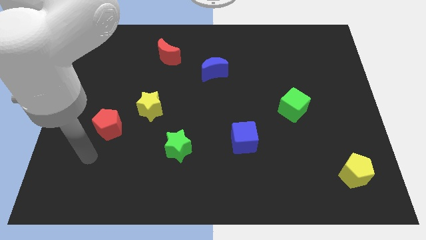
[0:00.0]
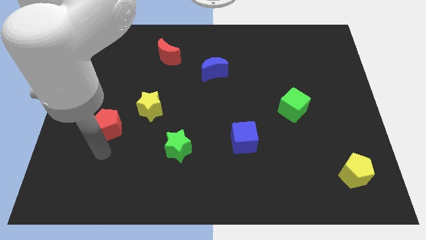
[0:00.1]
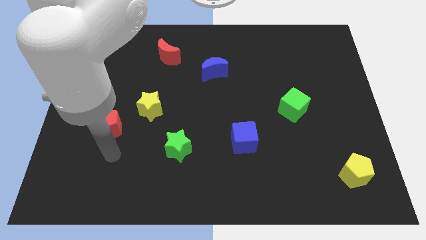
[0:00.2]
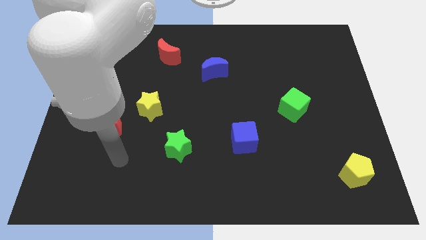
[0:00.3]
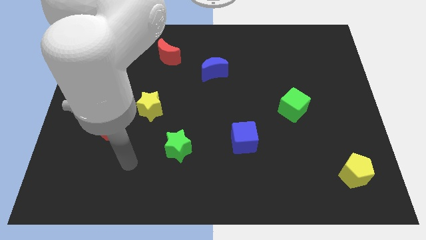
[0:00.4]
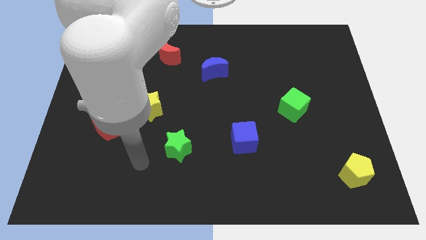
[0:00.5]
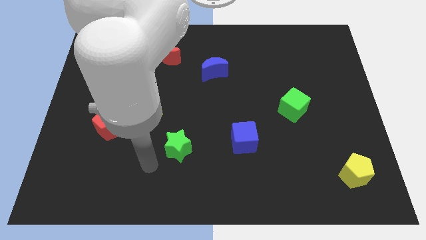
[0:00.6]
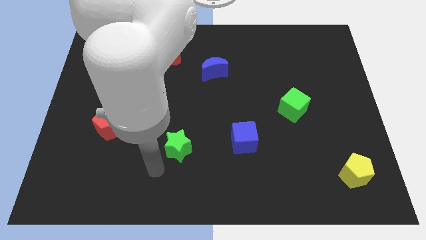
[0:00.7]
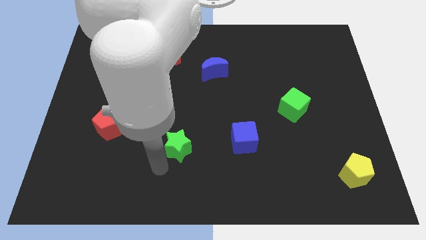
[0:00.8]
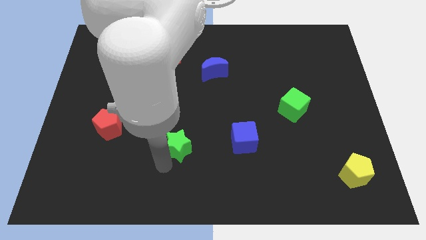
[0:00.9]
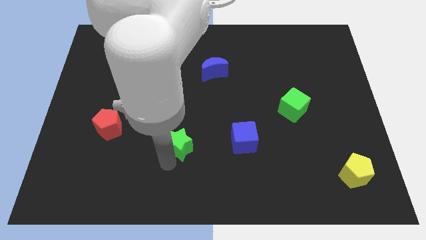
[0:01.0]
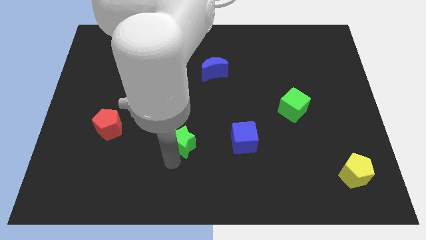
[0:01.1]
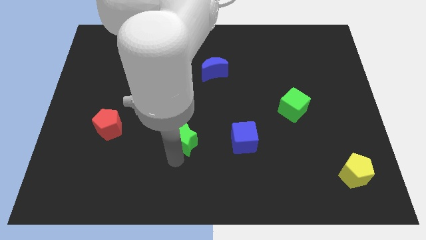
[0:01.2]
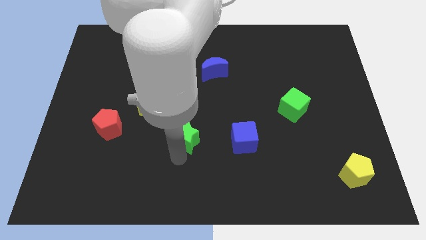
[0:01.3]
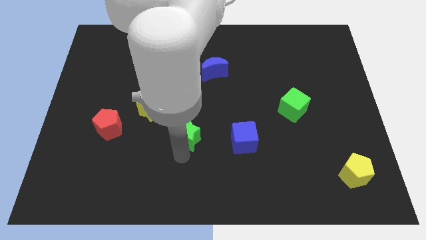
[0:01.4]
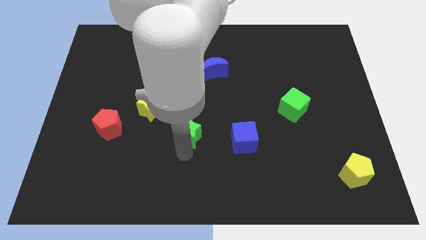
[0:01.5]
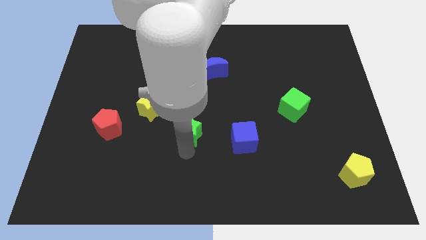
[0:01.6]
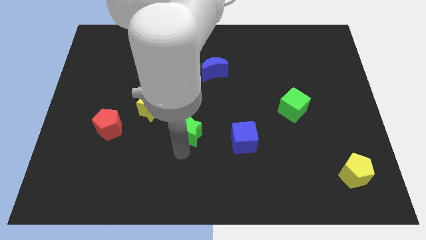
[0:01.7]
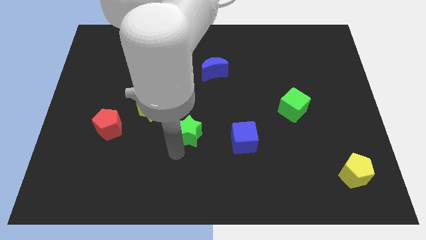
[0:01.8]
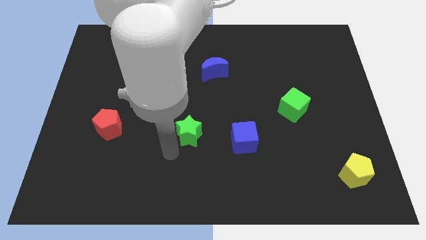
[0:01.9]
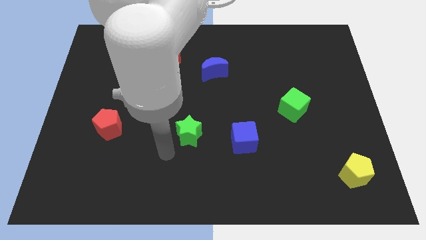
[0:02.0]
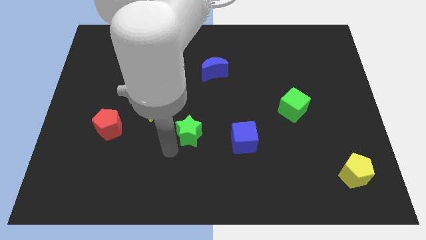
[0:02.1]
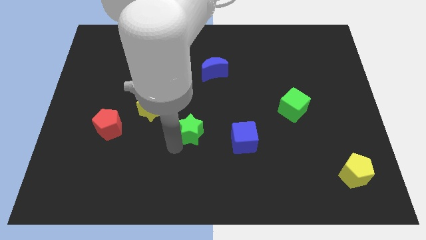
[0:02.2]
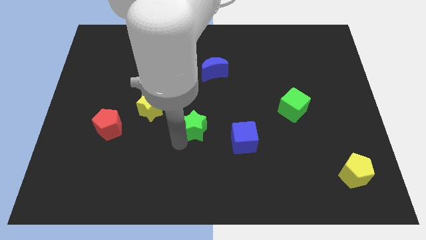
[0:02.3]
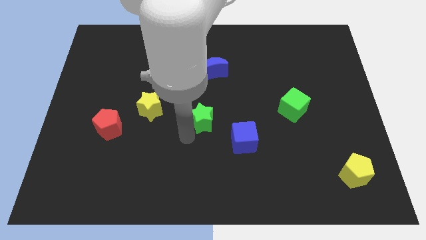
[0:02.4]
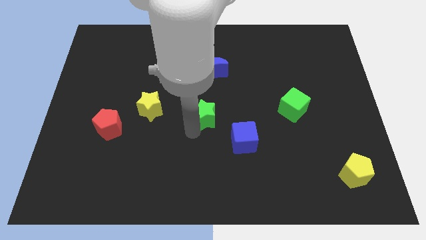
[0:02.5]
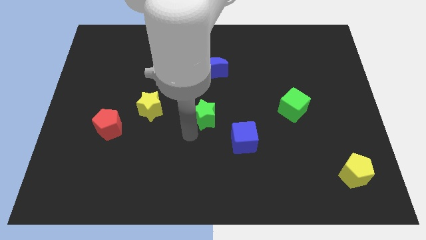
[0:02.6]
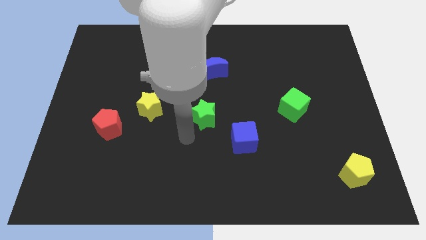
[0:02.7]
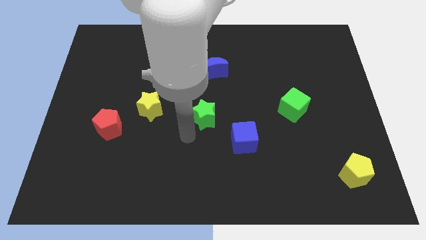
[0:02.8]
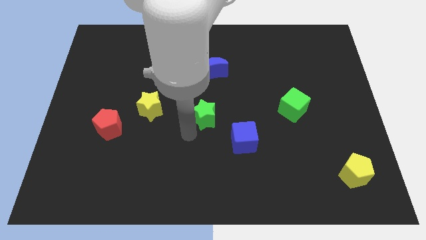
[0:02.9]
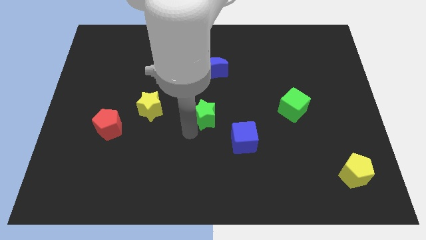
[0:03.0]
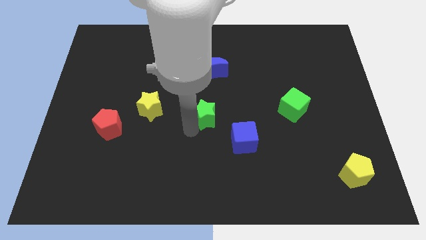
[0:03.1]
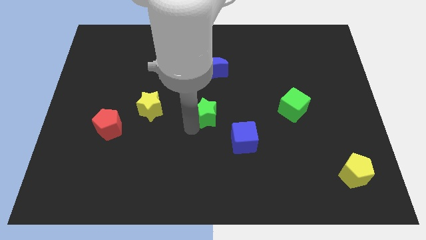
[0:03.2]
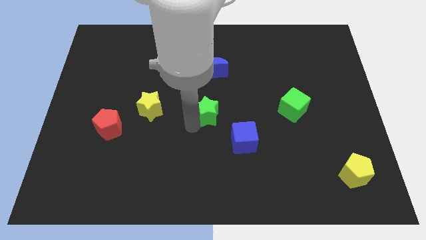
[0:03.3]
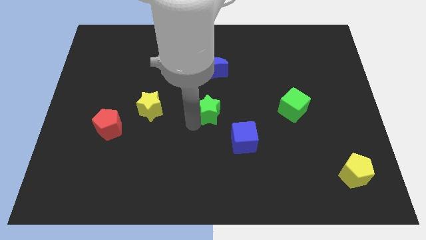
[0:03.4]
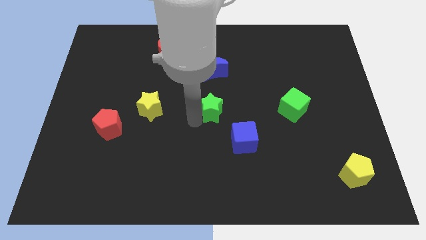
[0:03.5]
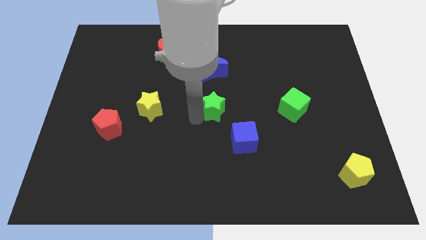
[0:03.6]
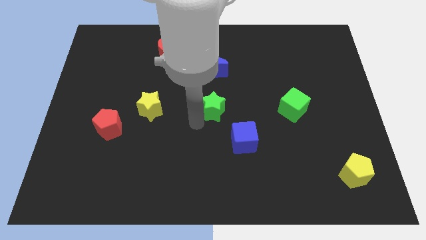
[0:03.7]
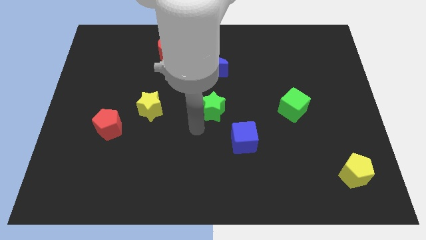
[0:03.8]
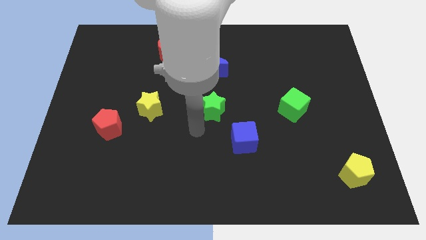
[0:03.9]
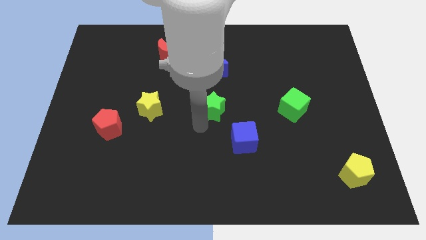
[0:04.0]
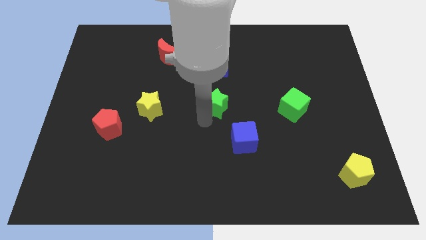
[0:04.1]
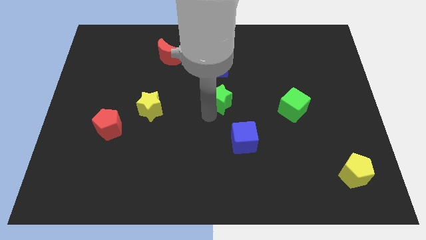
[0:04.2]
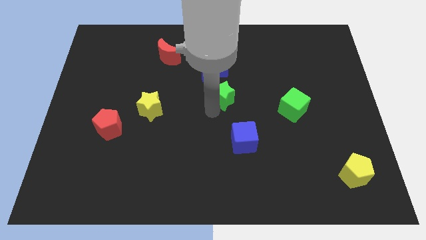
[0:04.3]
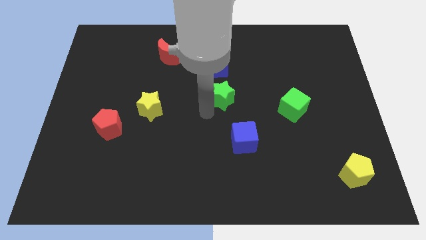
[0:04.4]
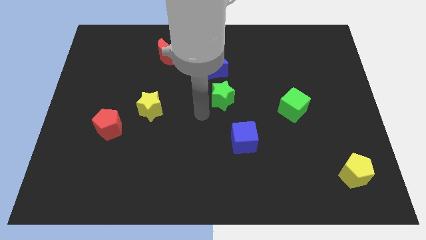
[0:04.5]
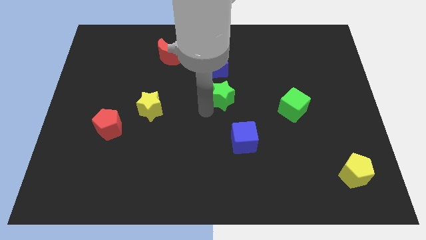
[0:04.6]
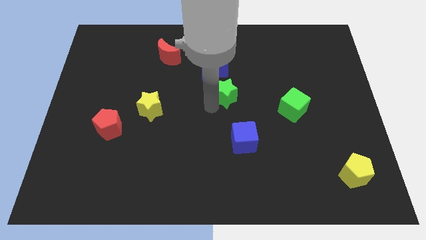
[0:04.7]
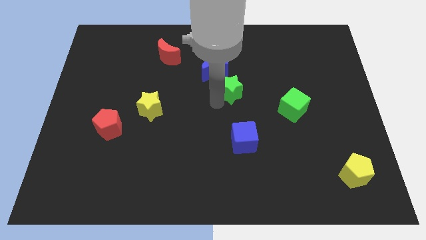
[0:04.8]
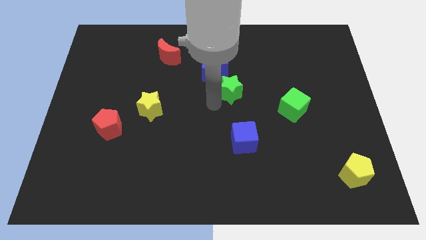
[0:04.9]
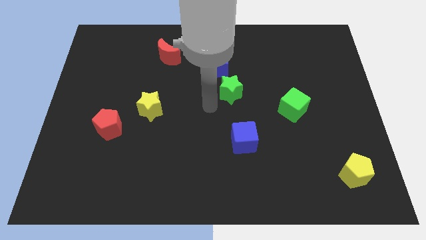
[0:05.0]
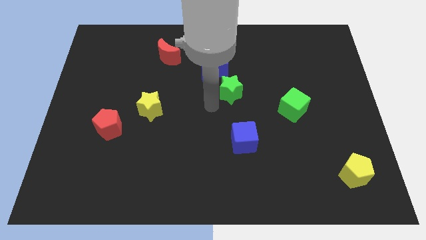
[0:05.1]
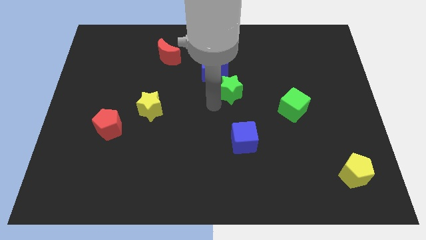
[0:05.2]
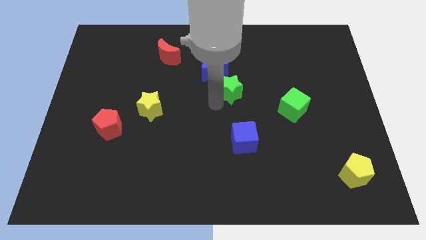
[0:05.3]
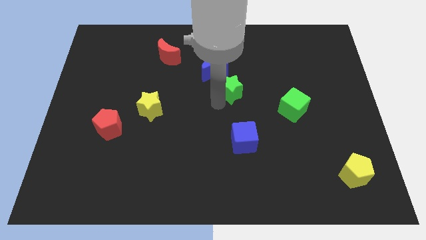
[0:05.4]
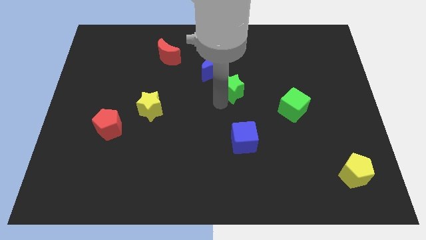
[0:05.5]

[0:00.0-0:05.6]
slide the green star up and right diagonally

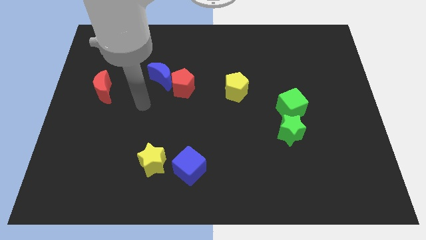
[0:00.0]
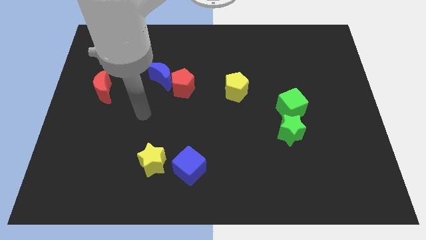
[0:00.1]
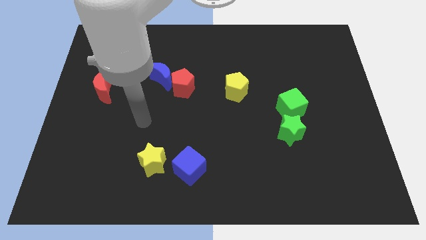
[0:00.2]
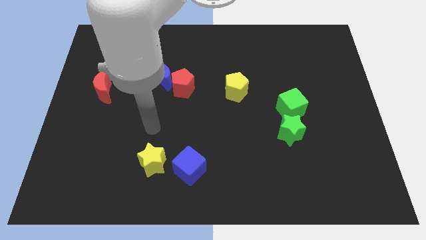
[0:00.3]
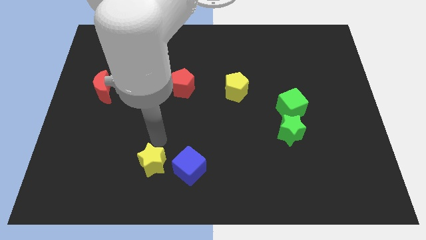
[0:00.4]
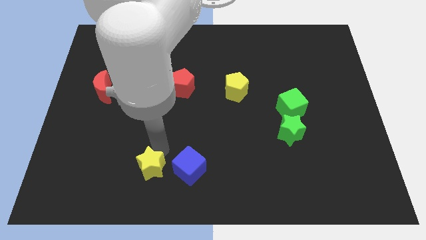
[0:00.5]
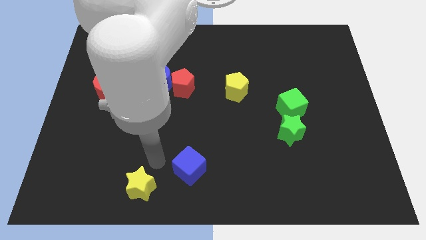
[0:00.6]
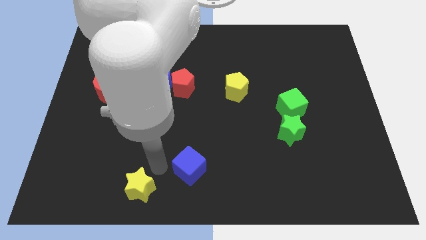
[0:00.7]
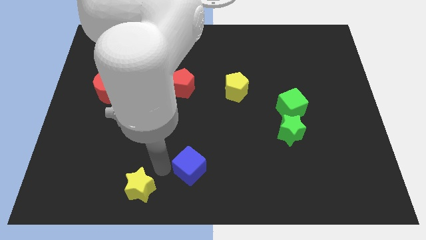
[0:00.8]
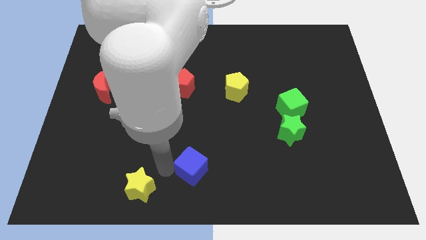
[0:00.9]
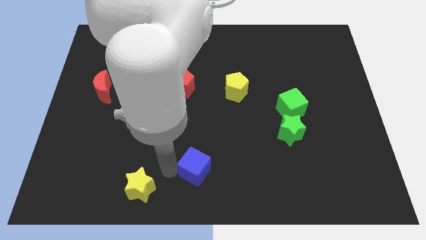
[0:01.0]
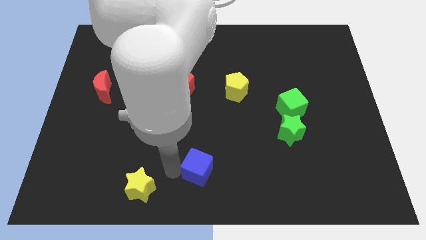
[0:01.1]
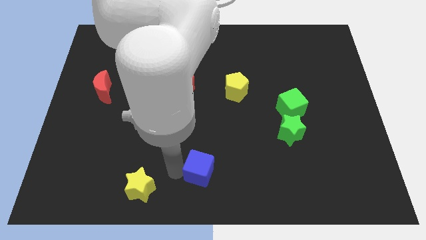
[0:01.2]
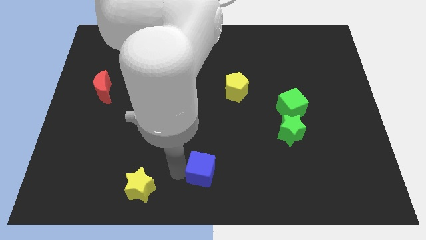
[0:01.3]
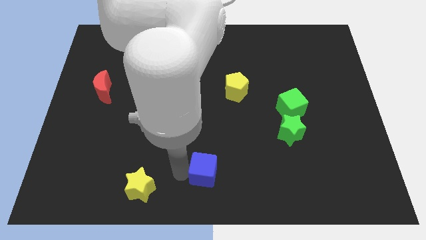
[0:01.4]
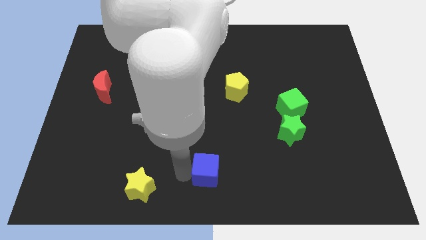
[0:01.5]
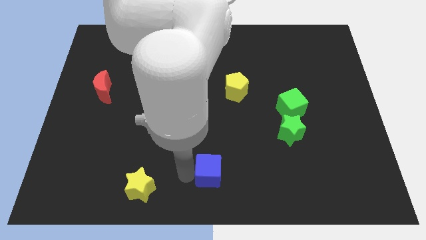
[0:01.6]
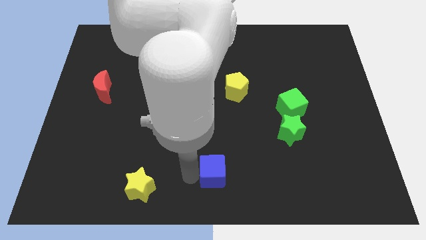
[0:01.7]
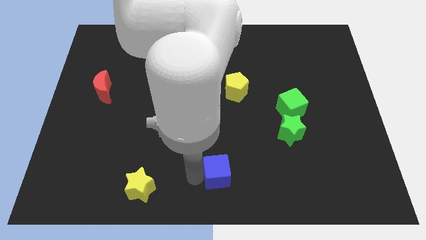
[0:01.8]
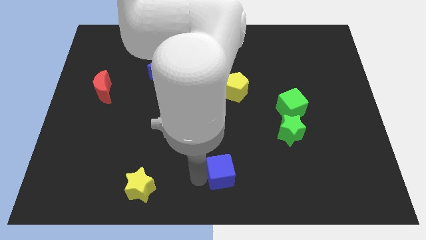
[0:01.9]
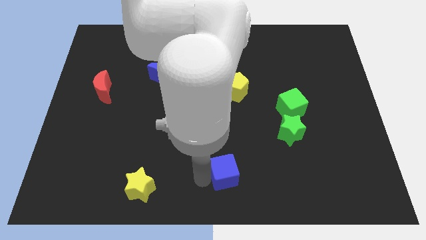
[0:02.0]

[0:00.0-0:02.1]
slightly slide the blue cube right

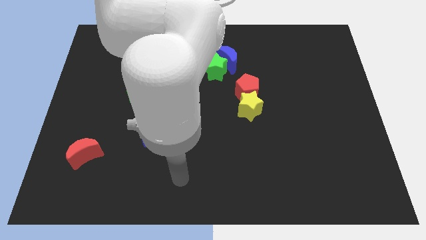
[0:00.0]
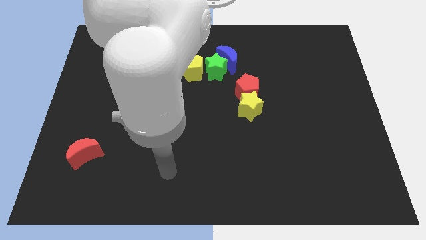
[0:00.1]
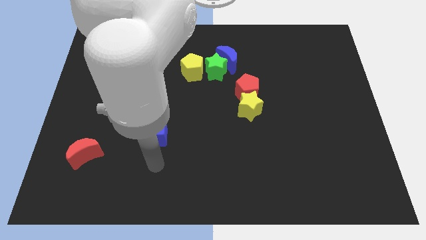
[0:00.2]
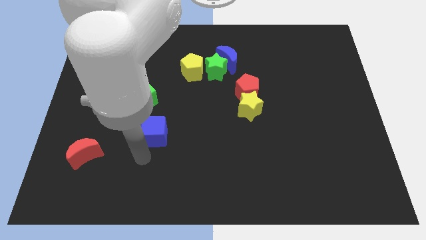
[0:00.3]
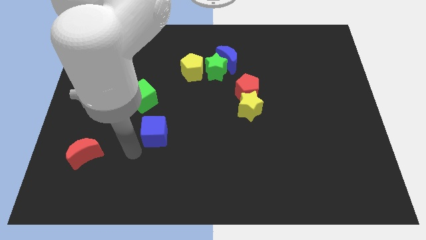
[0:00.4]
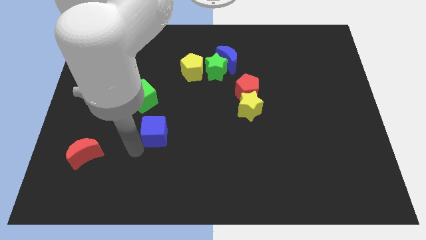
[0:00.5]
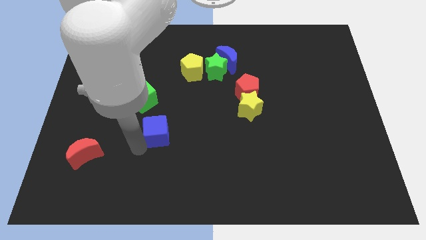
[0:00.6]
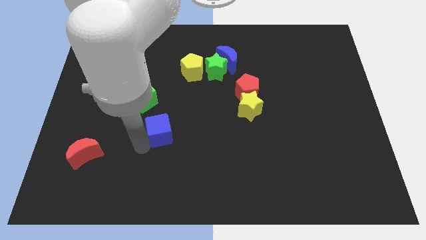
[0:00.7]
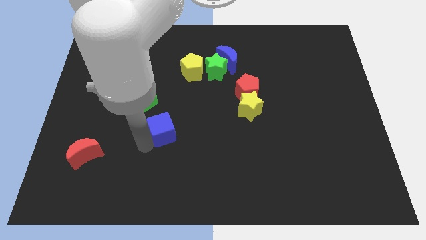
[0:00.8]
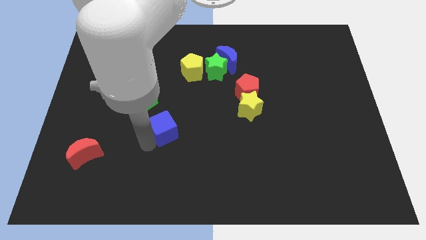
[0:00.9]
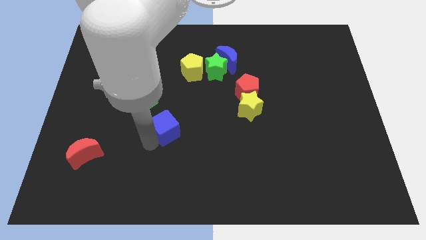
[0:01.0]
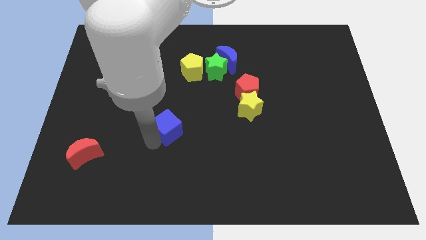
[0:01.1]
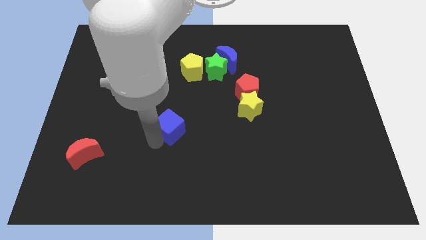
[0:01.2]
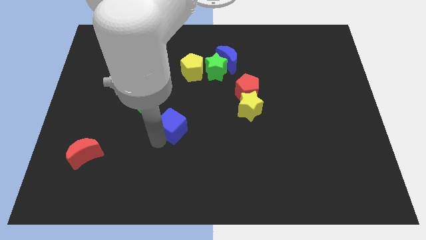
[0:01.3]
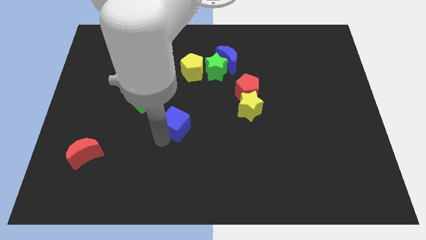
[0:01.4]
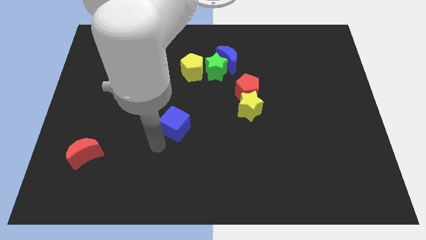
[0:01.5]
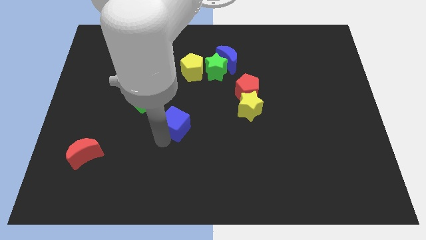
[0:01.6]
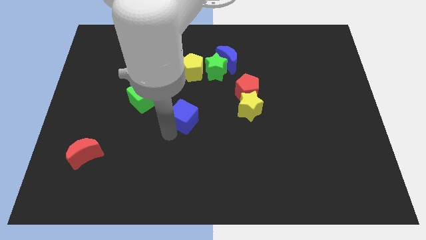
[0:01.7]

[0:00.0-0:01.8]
move the blue cube slightly upwards and then right
